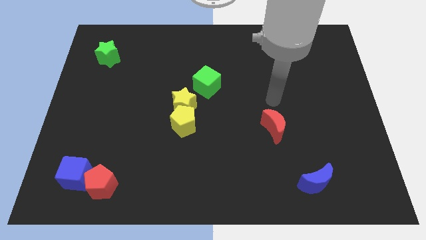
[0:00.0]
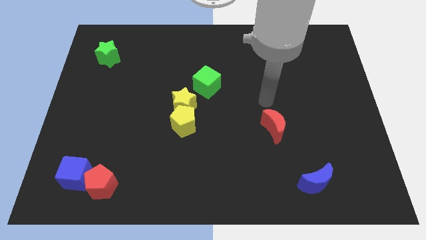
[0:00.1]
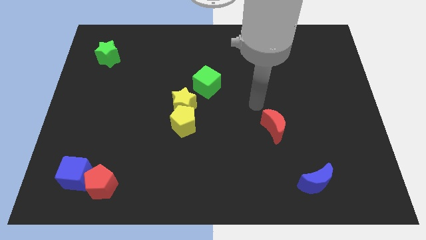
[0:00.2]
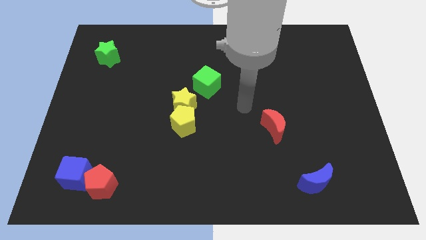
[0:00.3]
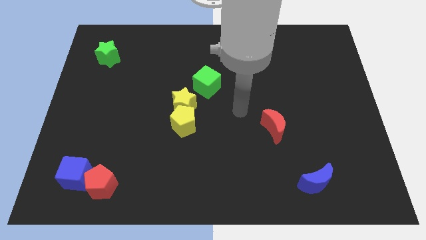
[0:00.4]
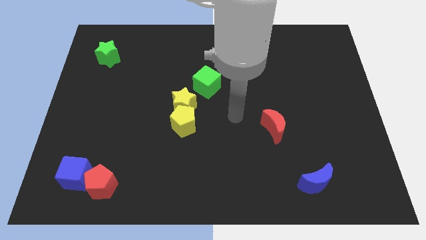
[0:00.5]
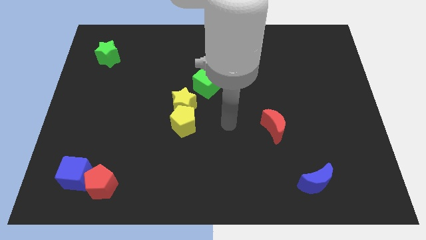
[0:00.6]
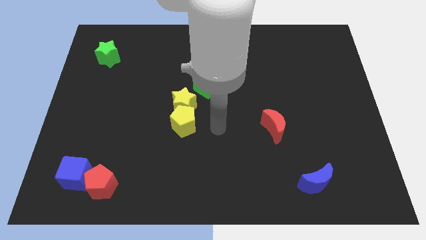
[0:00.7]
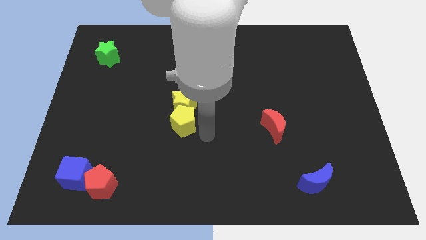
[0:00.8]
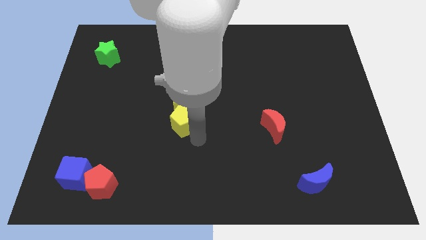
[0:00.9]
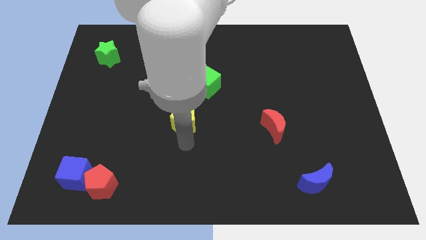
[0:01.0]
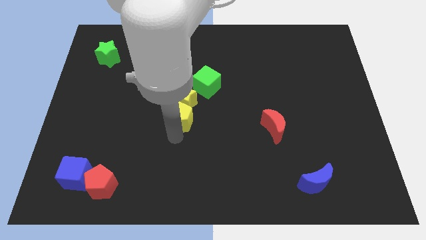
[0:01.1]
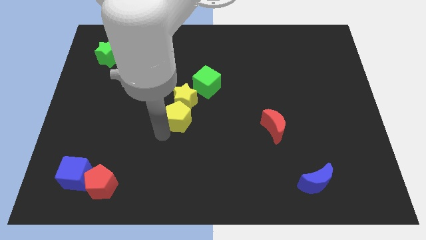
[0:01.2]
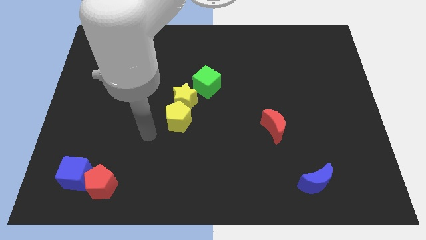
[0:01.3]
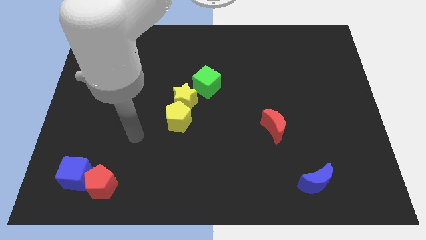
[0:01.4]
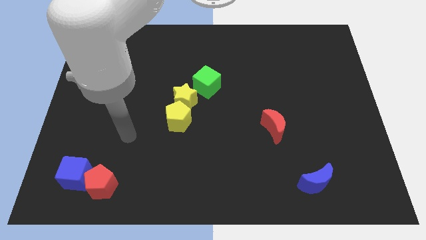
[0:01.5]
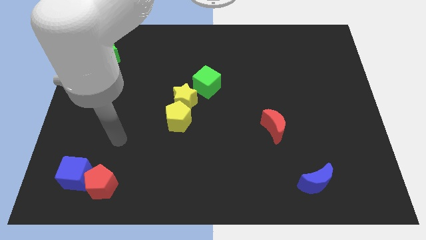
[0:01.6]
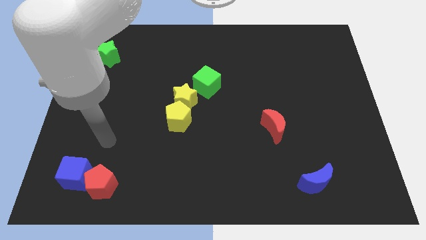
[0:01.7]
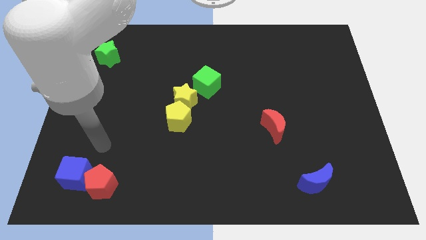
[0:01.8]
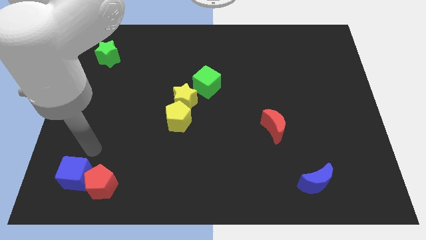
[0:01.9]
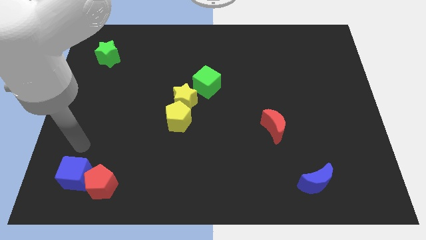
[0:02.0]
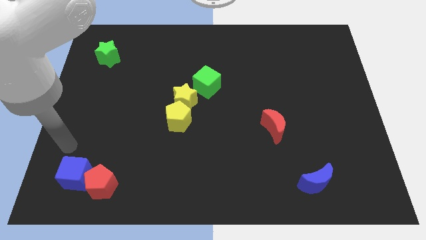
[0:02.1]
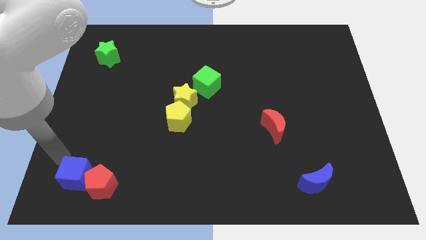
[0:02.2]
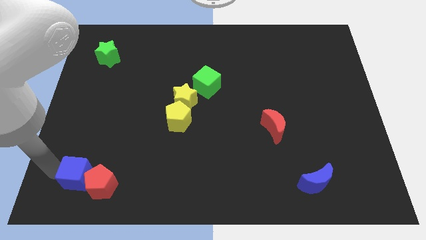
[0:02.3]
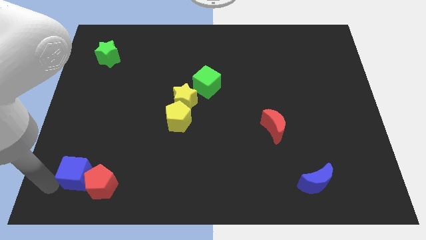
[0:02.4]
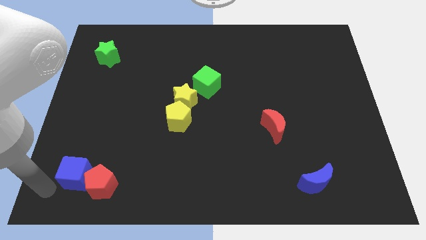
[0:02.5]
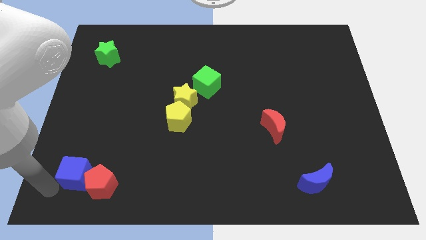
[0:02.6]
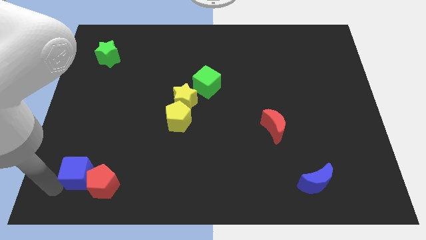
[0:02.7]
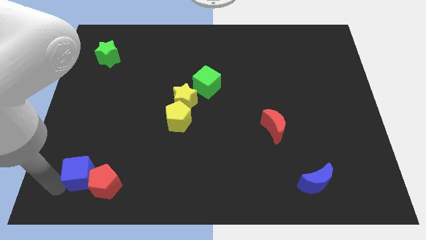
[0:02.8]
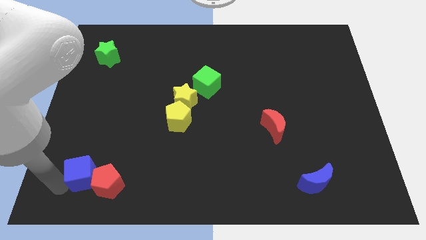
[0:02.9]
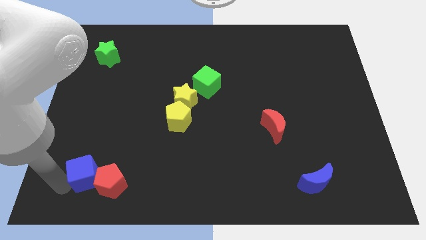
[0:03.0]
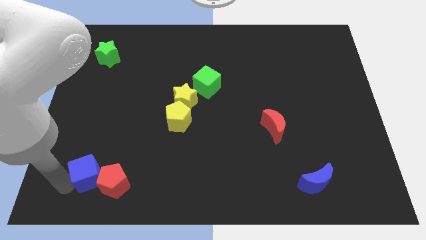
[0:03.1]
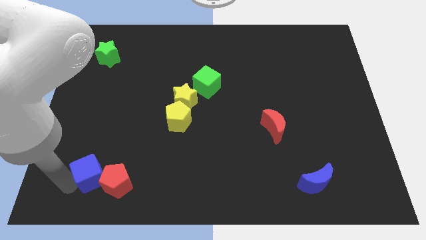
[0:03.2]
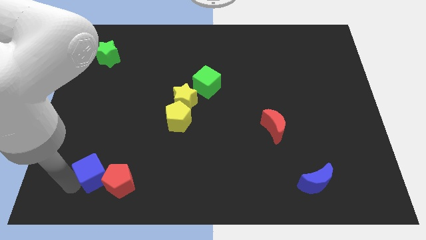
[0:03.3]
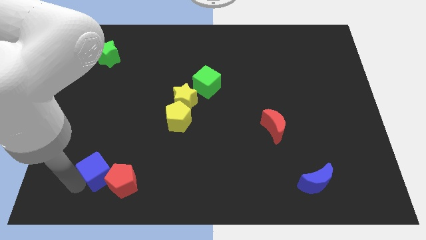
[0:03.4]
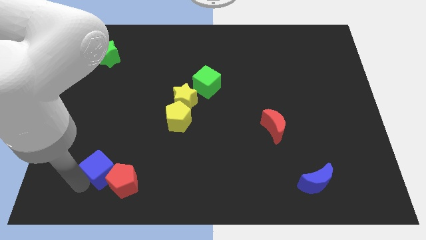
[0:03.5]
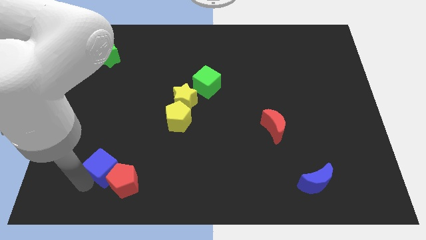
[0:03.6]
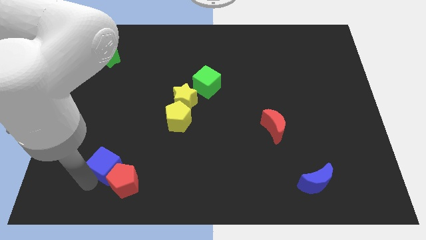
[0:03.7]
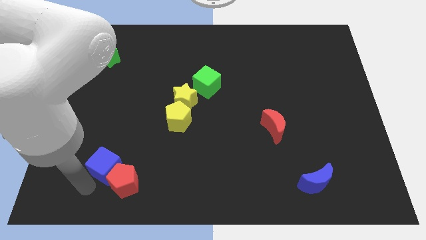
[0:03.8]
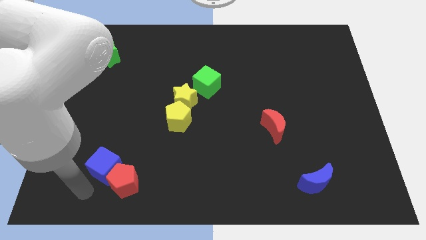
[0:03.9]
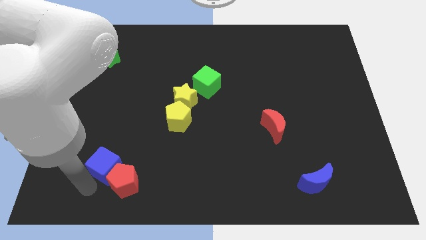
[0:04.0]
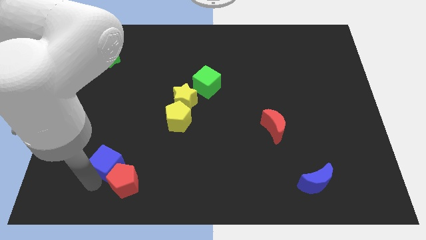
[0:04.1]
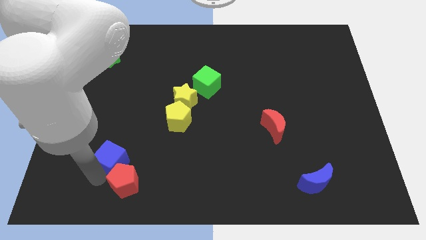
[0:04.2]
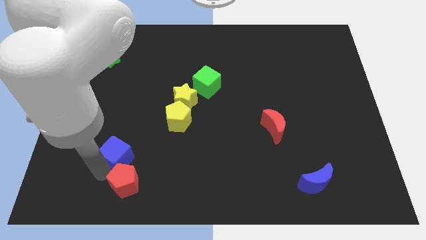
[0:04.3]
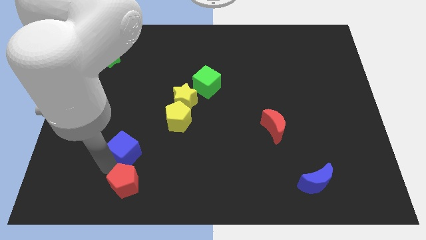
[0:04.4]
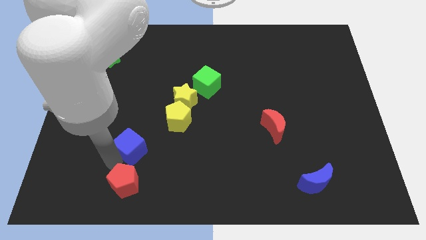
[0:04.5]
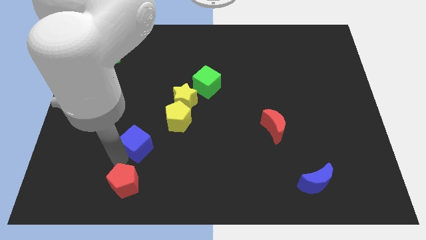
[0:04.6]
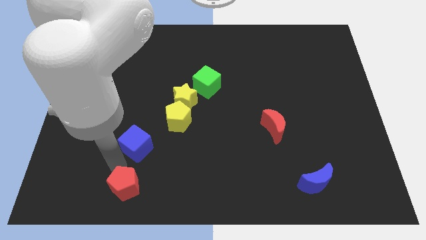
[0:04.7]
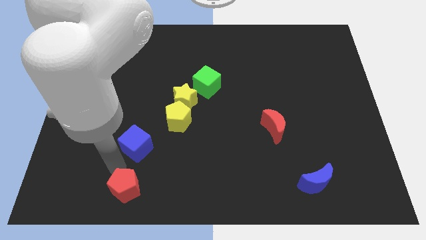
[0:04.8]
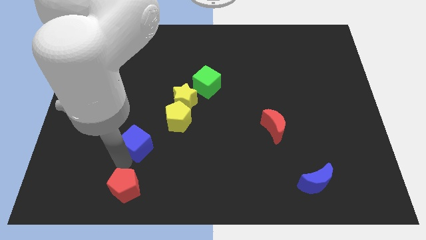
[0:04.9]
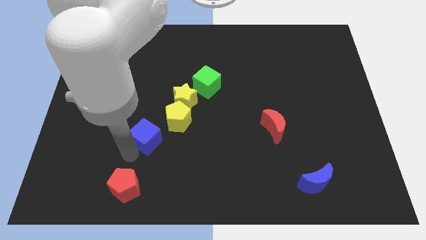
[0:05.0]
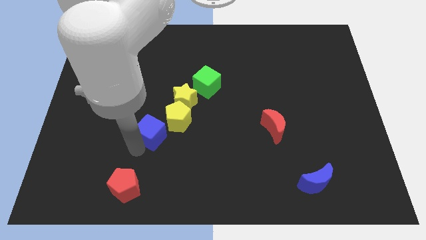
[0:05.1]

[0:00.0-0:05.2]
move the blue cube diagonally down and to the left of the yellow star

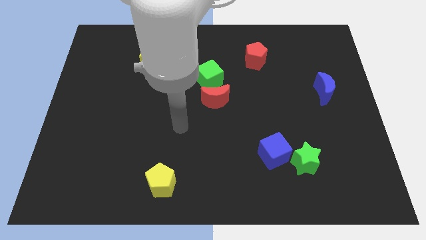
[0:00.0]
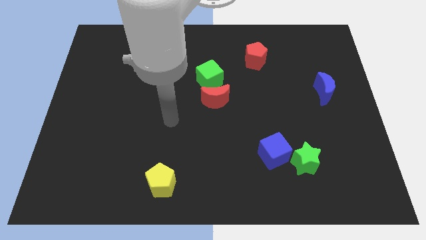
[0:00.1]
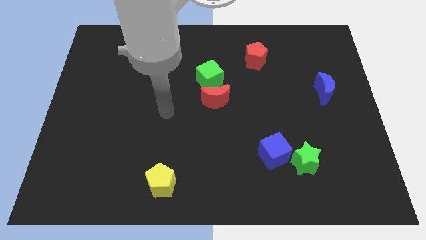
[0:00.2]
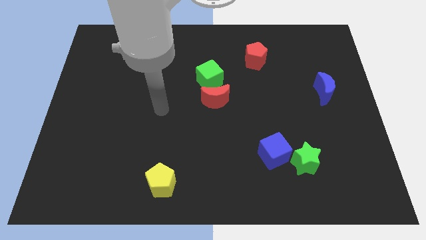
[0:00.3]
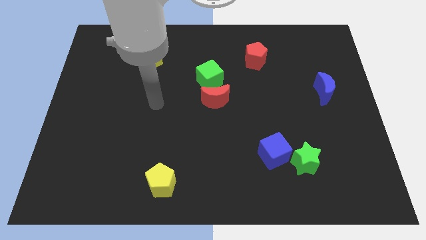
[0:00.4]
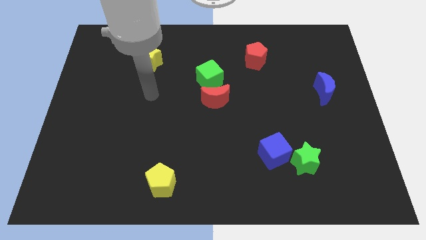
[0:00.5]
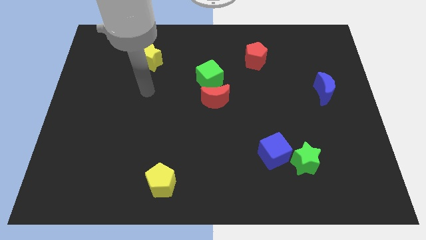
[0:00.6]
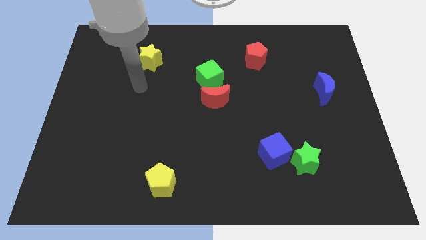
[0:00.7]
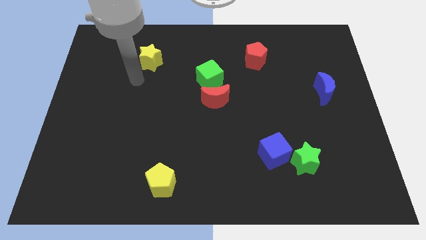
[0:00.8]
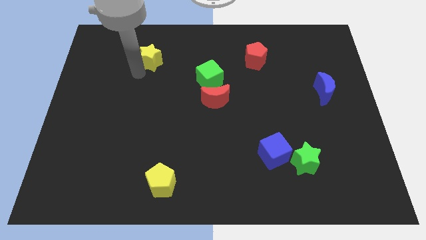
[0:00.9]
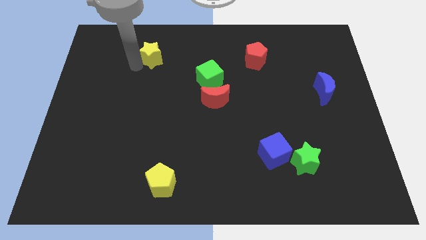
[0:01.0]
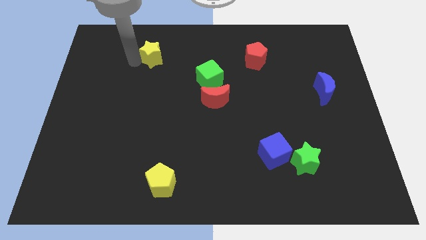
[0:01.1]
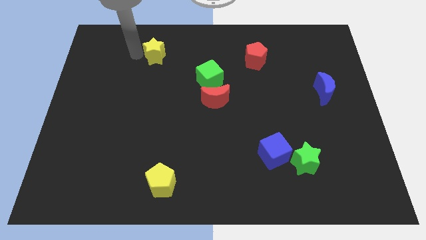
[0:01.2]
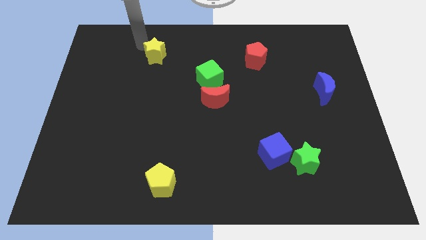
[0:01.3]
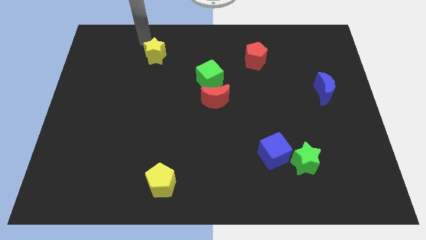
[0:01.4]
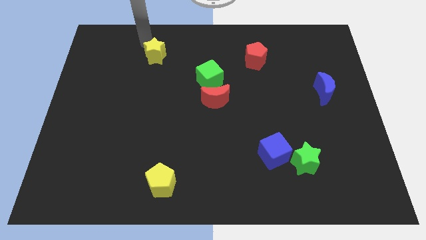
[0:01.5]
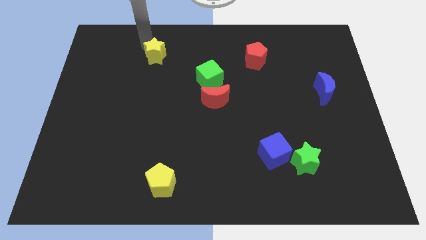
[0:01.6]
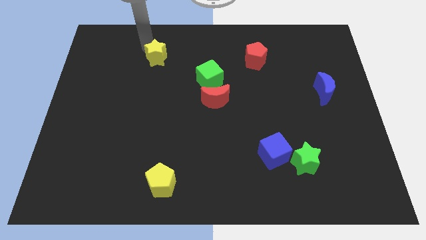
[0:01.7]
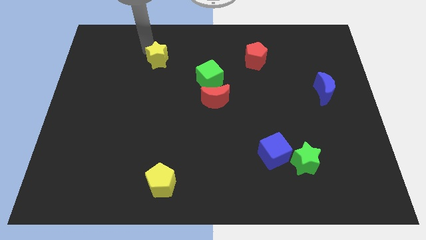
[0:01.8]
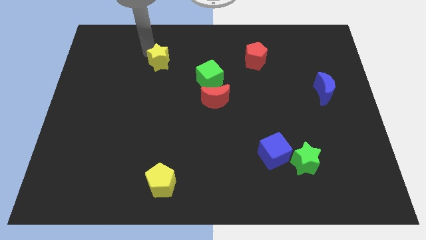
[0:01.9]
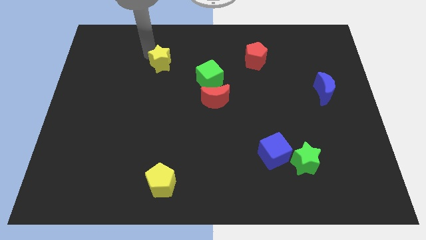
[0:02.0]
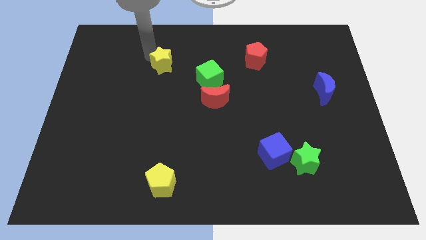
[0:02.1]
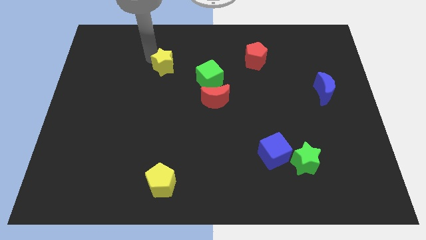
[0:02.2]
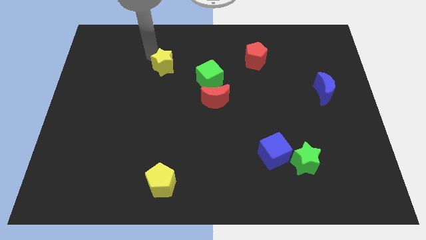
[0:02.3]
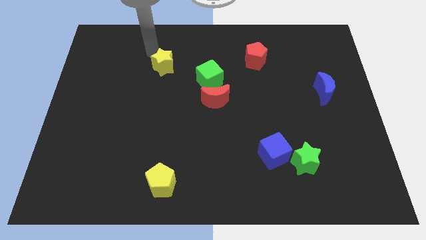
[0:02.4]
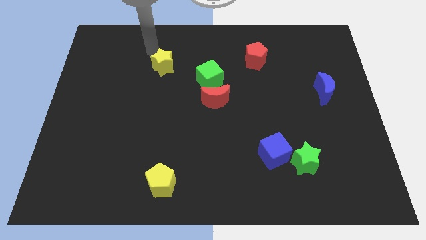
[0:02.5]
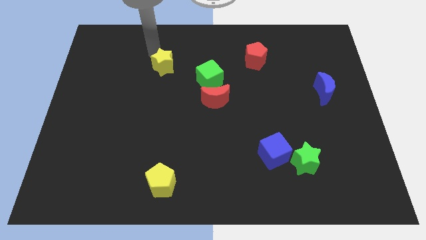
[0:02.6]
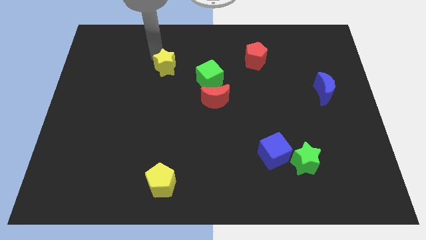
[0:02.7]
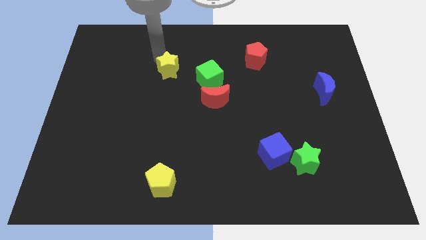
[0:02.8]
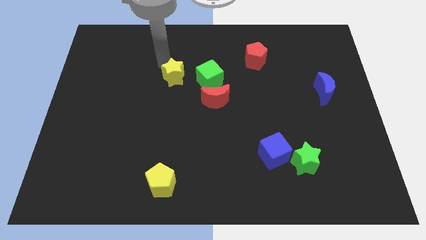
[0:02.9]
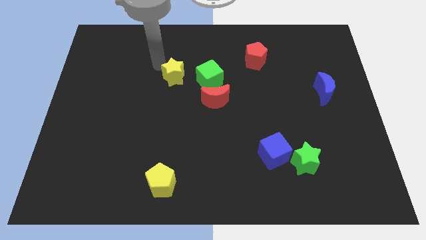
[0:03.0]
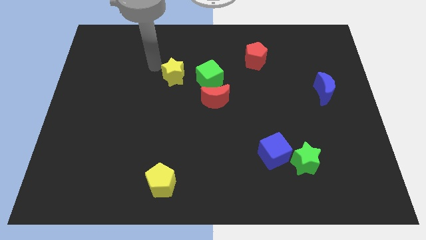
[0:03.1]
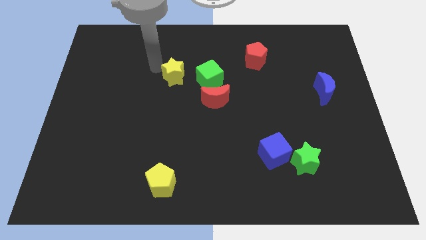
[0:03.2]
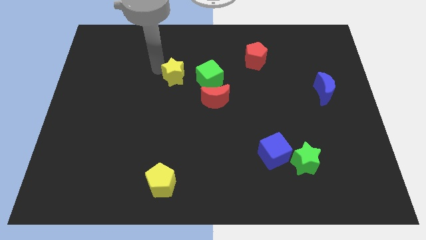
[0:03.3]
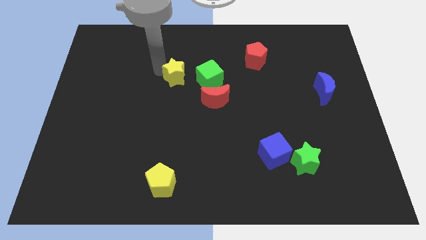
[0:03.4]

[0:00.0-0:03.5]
put the yellow star diagonally up and to the left of the red moon
